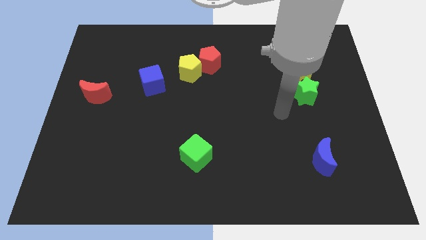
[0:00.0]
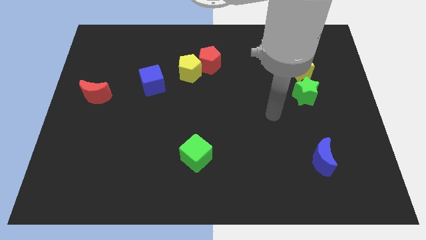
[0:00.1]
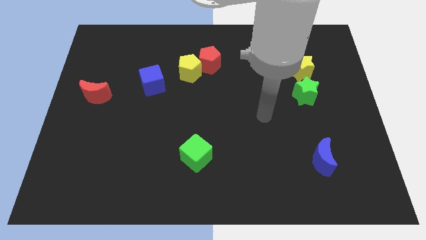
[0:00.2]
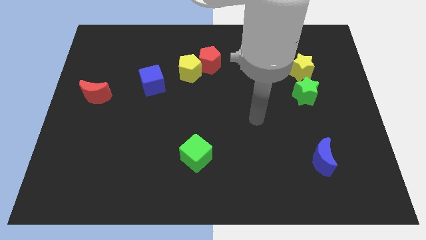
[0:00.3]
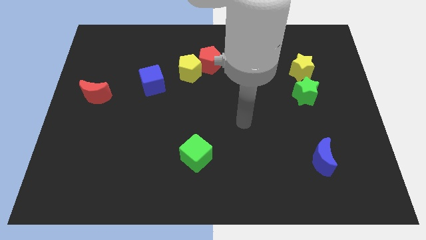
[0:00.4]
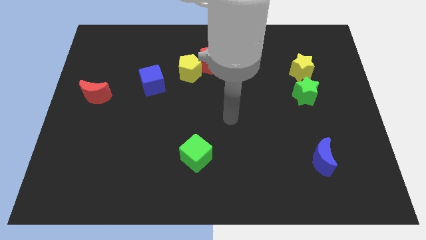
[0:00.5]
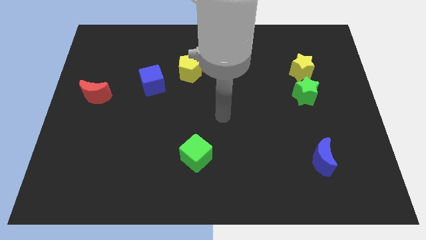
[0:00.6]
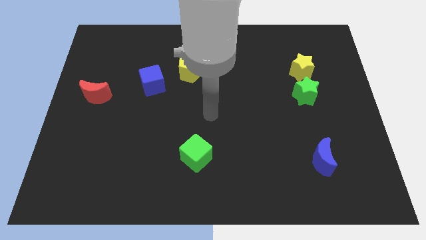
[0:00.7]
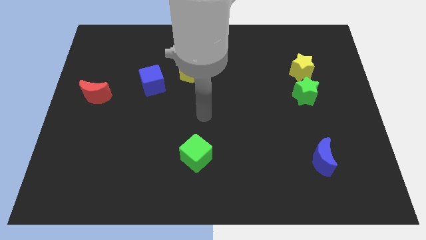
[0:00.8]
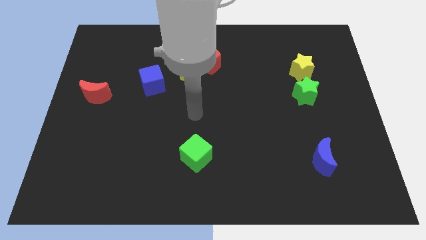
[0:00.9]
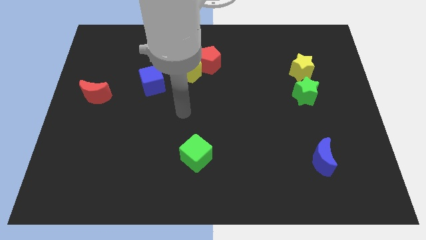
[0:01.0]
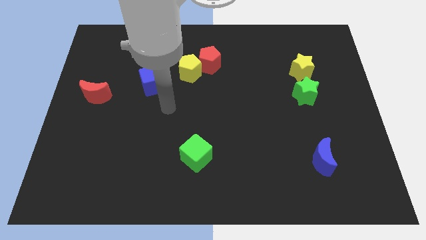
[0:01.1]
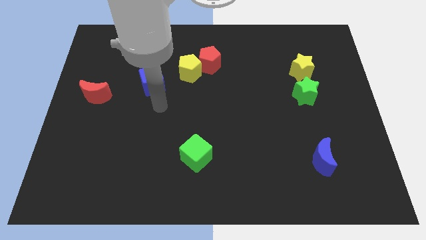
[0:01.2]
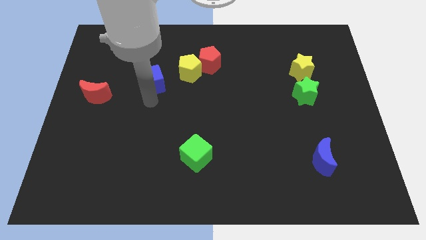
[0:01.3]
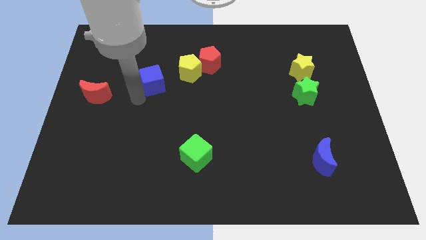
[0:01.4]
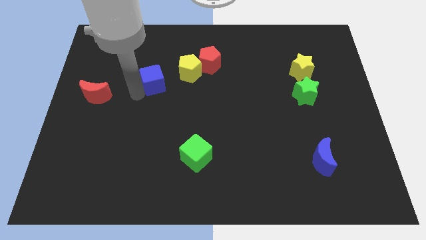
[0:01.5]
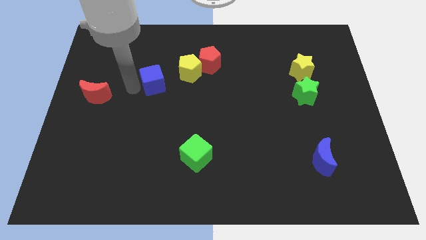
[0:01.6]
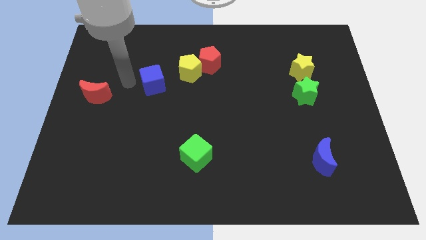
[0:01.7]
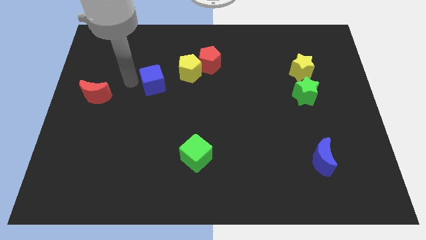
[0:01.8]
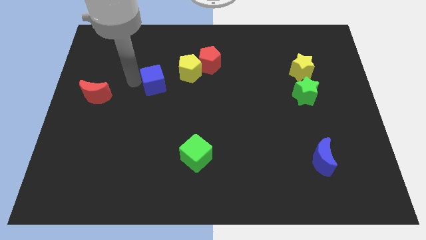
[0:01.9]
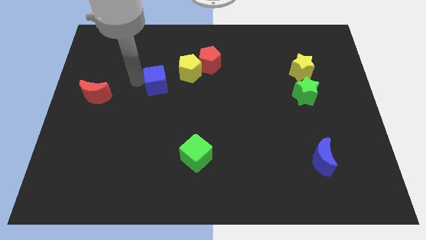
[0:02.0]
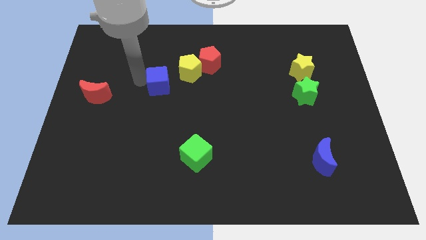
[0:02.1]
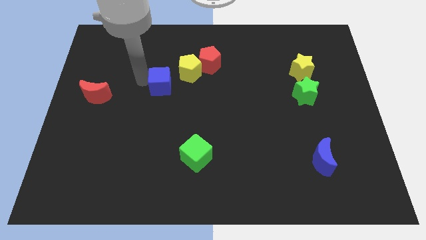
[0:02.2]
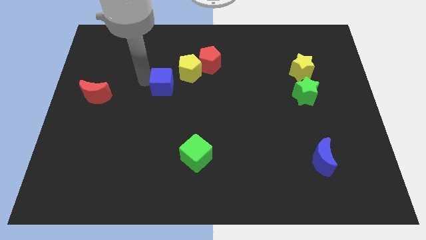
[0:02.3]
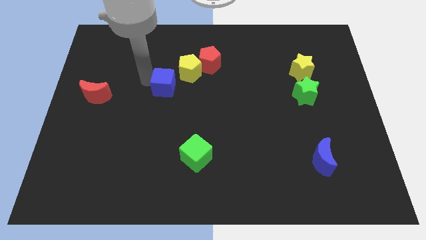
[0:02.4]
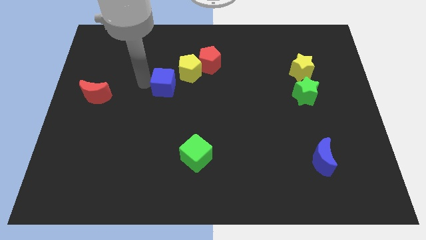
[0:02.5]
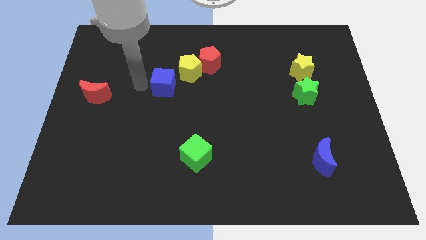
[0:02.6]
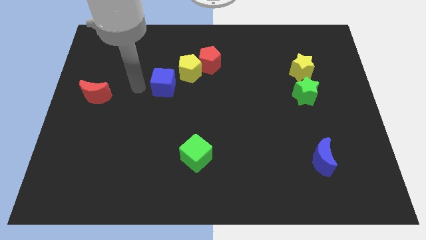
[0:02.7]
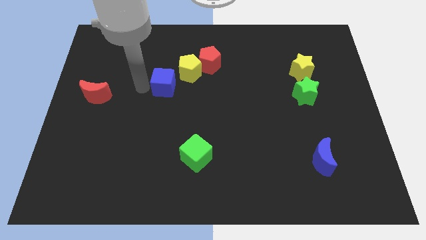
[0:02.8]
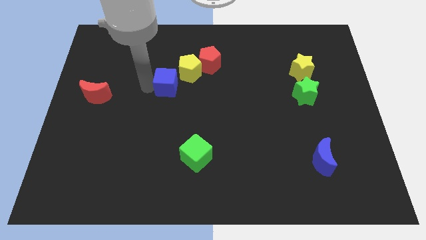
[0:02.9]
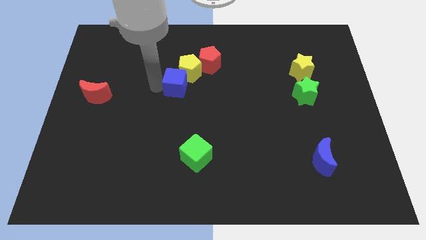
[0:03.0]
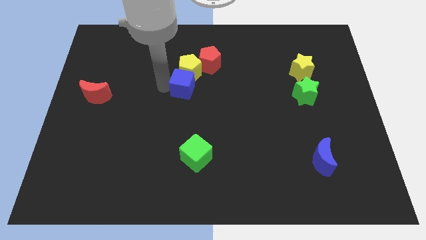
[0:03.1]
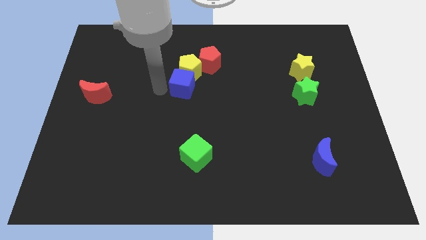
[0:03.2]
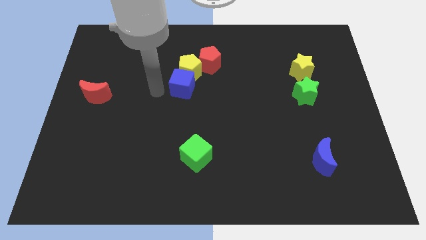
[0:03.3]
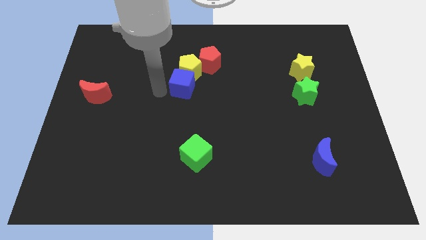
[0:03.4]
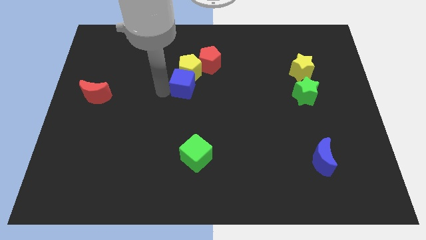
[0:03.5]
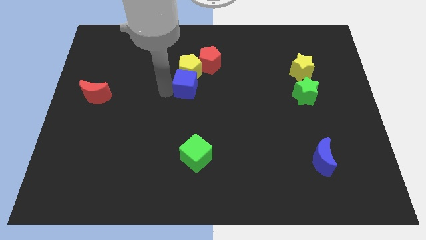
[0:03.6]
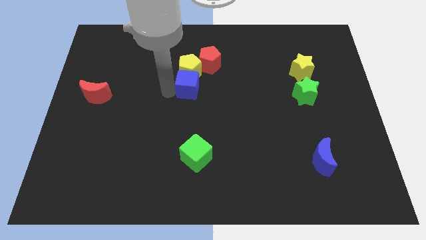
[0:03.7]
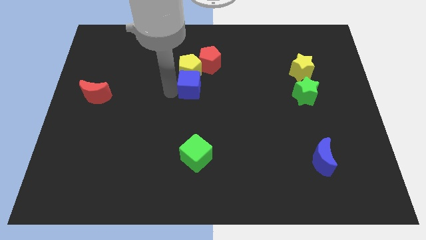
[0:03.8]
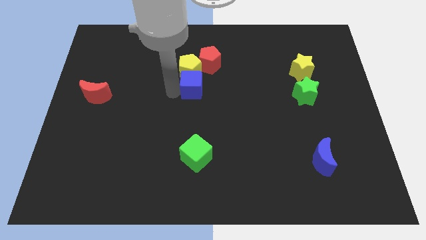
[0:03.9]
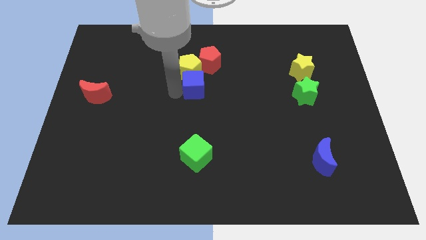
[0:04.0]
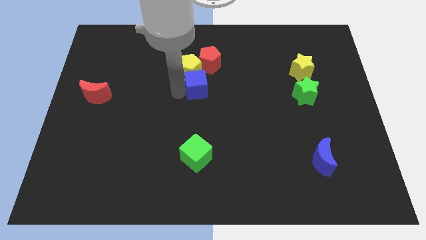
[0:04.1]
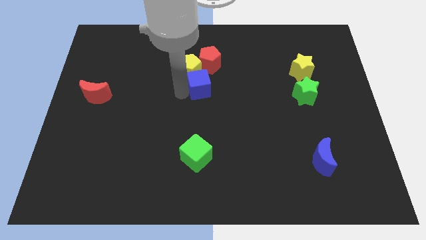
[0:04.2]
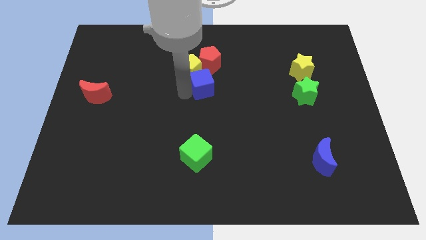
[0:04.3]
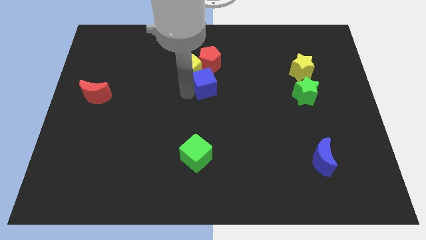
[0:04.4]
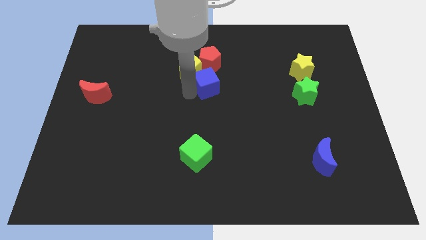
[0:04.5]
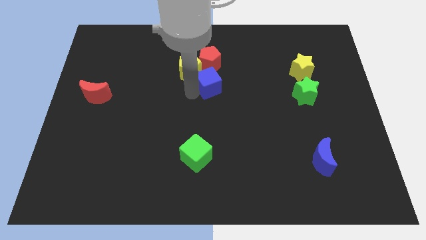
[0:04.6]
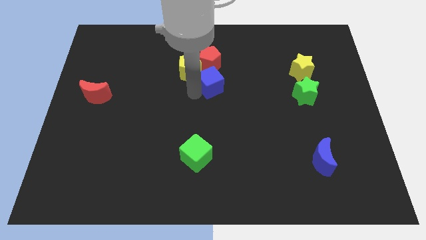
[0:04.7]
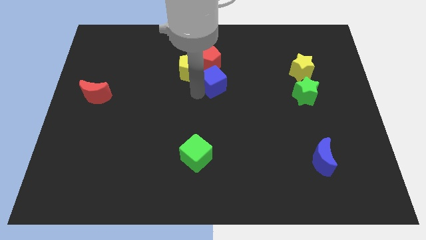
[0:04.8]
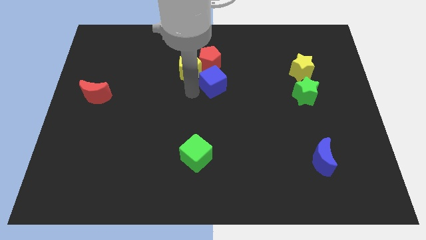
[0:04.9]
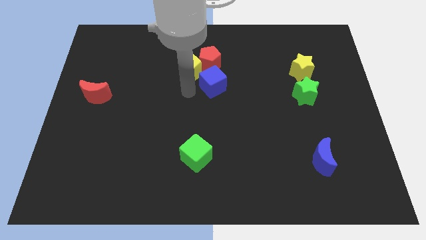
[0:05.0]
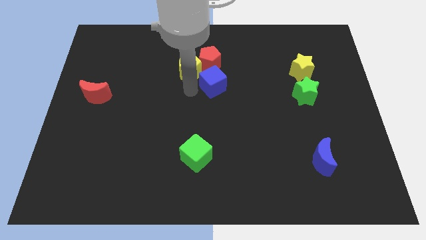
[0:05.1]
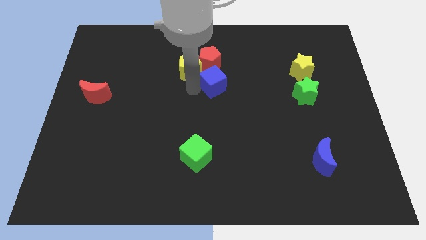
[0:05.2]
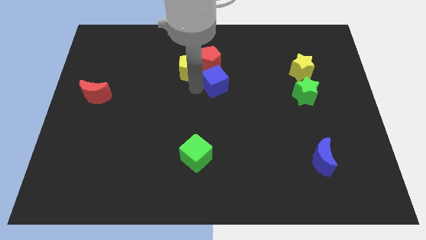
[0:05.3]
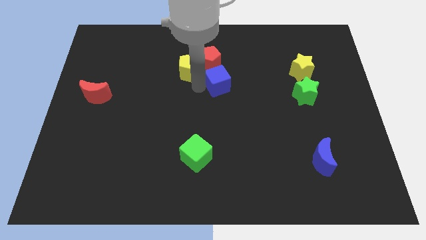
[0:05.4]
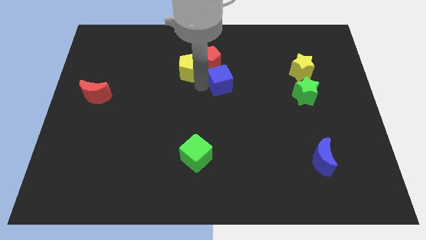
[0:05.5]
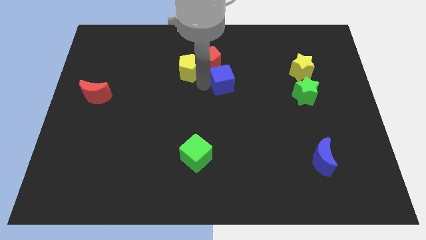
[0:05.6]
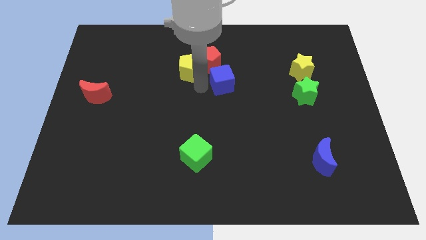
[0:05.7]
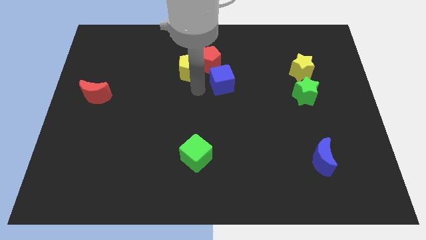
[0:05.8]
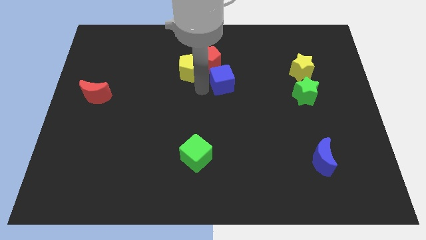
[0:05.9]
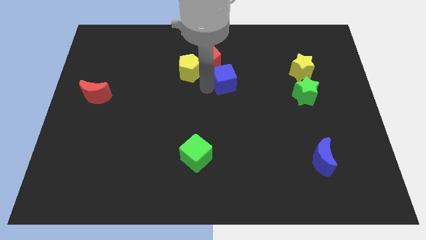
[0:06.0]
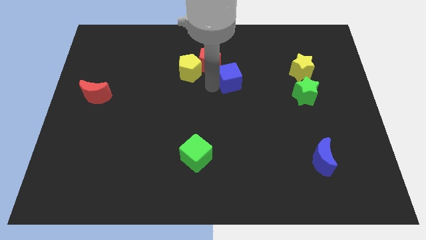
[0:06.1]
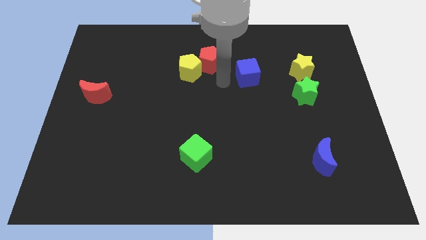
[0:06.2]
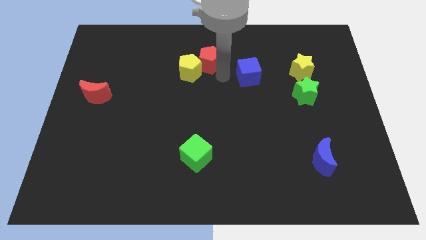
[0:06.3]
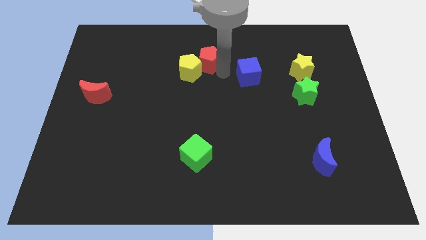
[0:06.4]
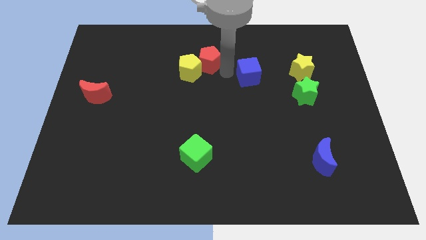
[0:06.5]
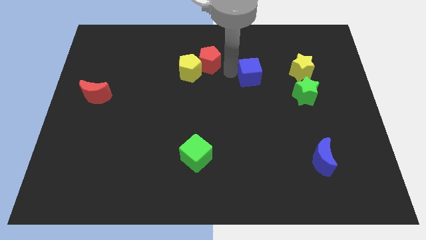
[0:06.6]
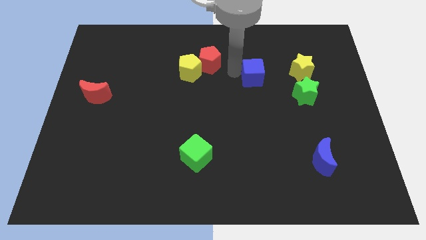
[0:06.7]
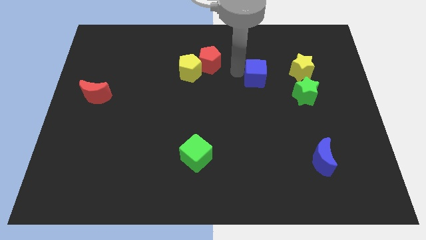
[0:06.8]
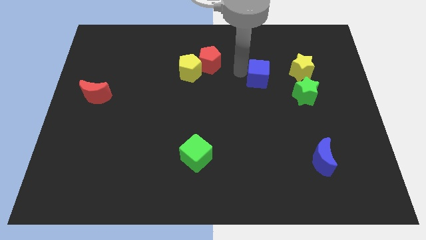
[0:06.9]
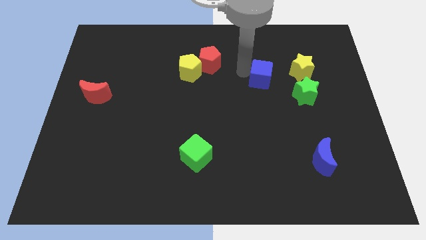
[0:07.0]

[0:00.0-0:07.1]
put the blue cube diagonally up and to the left of the green star
